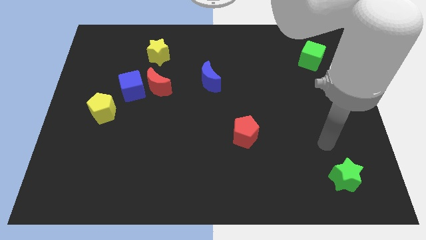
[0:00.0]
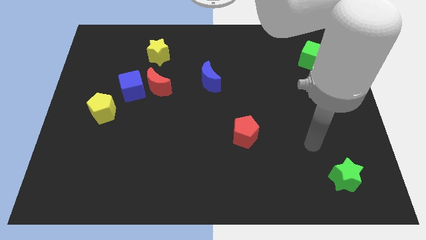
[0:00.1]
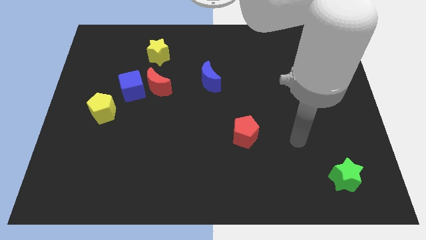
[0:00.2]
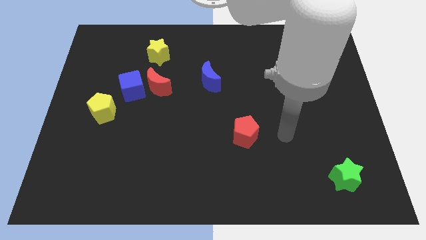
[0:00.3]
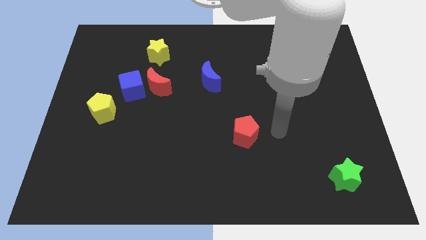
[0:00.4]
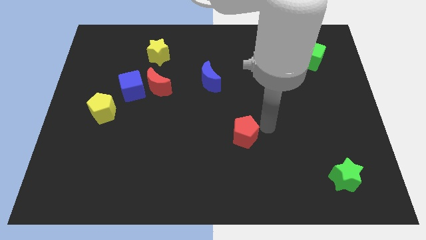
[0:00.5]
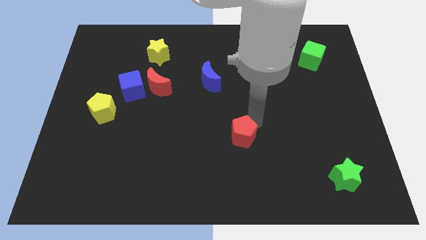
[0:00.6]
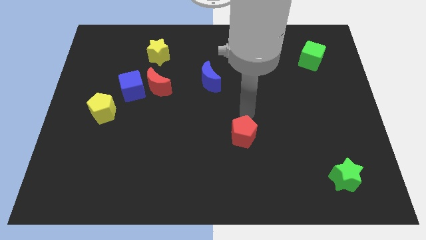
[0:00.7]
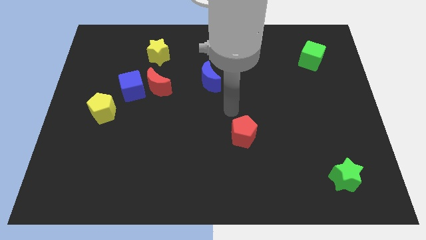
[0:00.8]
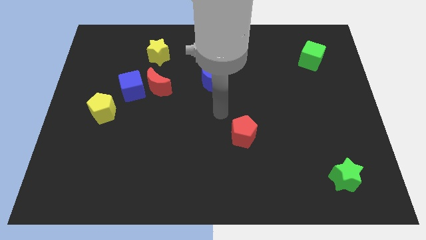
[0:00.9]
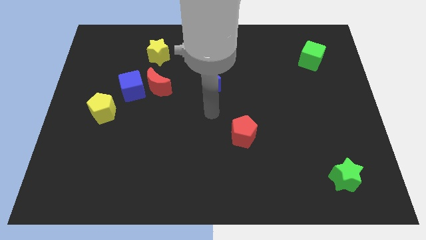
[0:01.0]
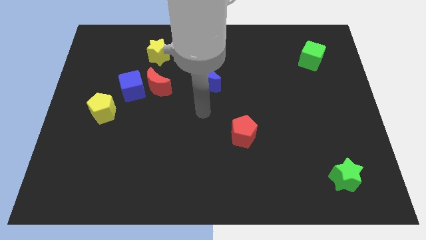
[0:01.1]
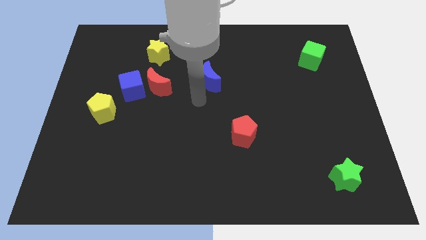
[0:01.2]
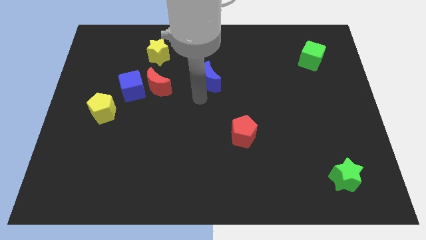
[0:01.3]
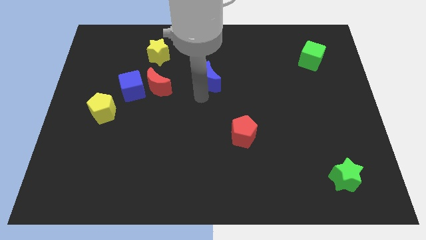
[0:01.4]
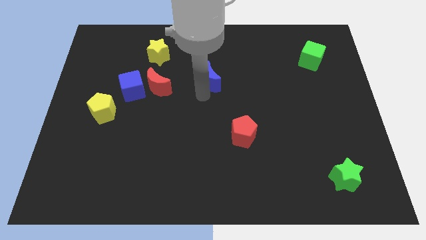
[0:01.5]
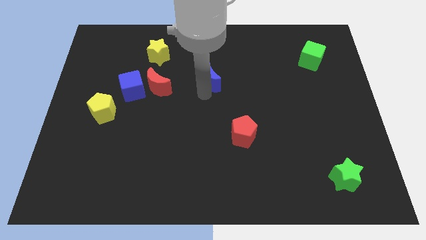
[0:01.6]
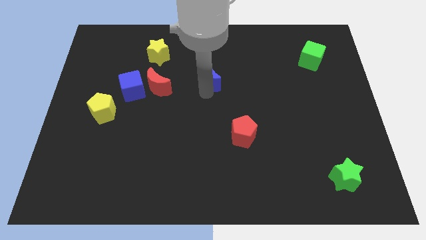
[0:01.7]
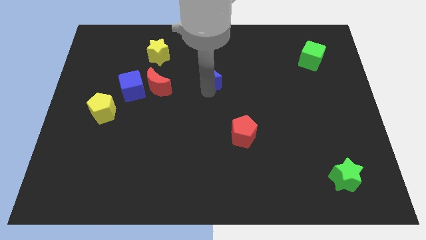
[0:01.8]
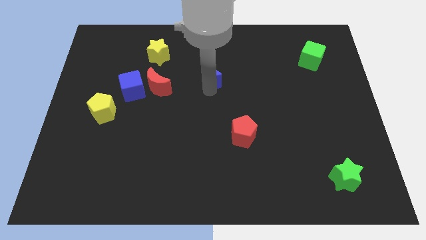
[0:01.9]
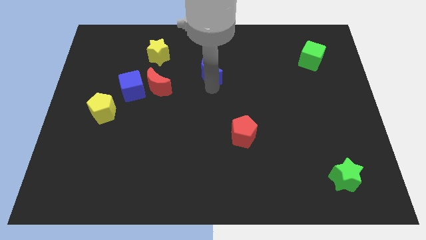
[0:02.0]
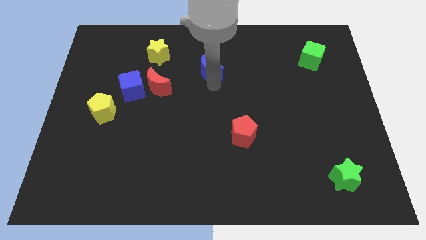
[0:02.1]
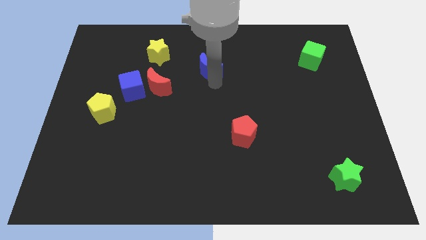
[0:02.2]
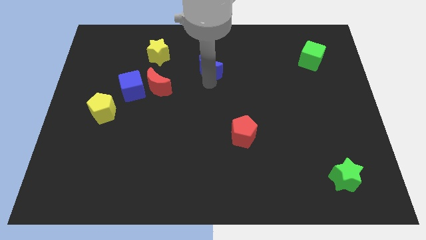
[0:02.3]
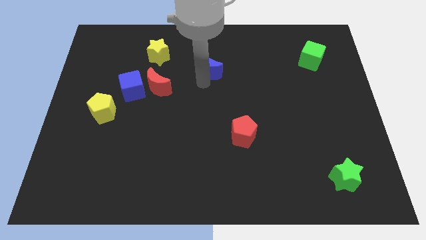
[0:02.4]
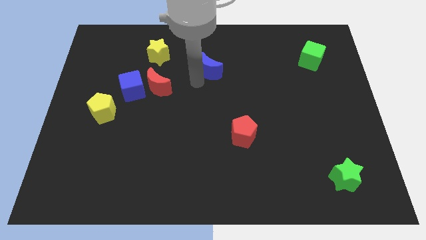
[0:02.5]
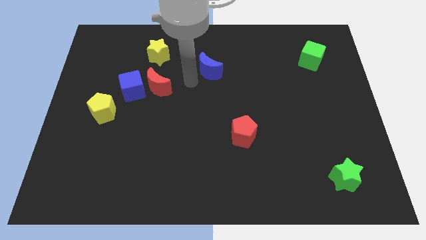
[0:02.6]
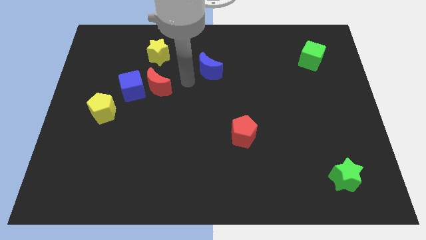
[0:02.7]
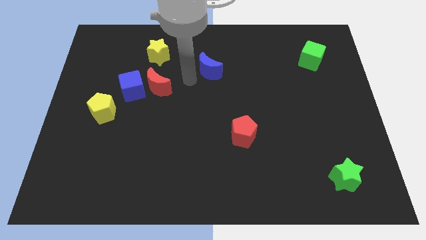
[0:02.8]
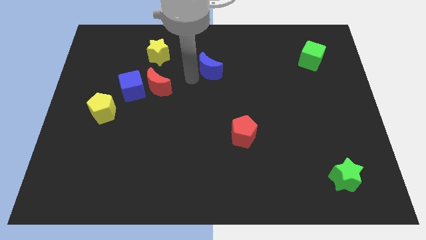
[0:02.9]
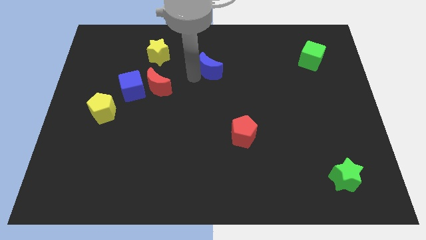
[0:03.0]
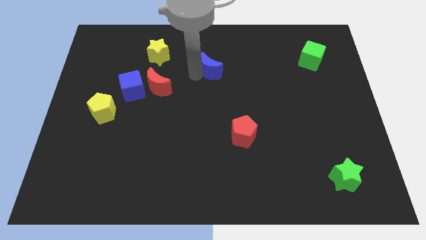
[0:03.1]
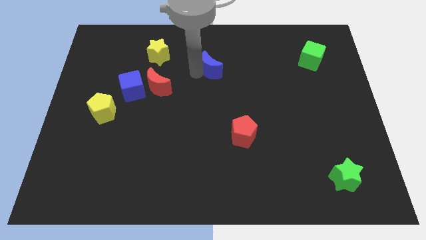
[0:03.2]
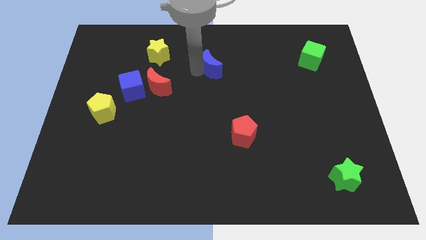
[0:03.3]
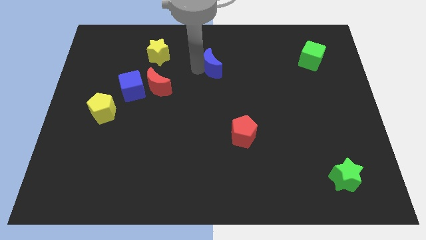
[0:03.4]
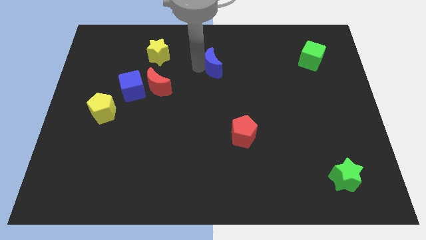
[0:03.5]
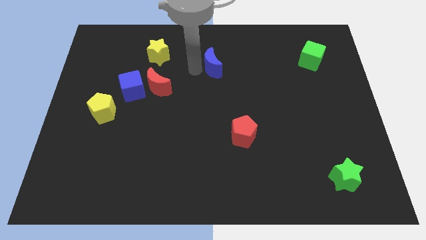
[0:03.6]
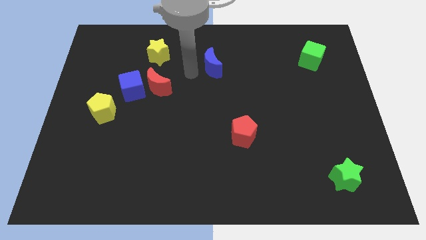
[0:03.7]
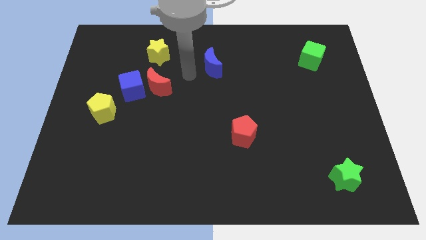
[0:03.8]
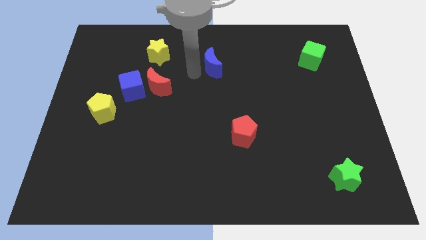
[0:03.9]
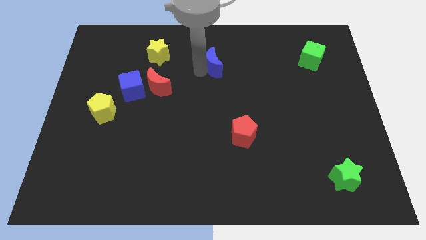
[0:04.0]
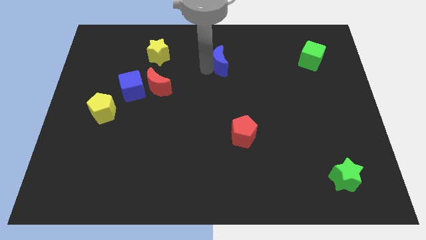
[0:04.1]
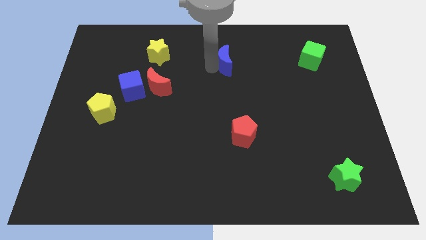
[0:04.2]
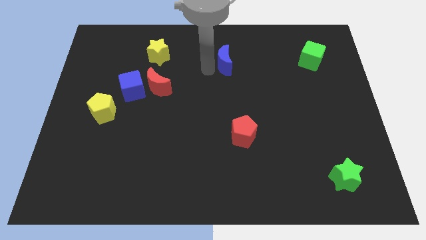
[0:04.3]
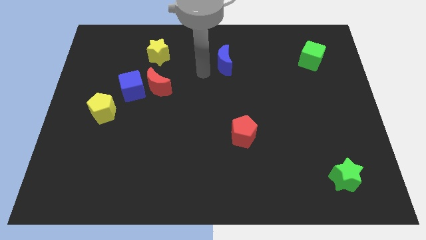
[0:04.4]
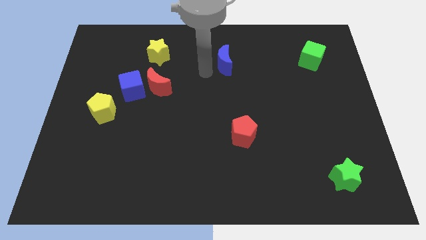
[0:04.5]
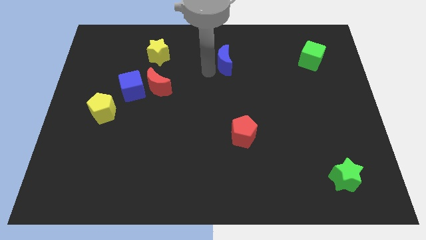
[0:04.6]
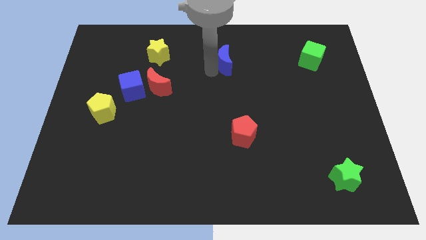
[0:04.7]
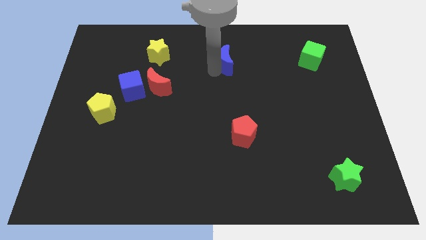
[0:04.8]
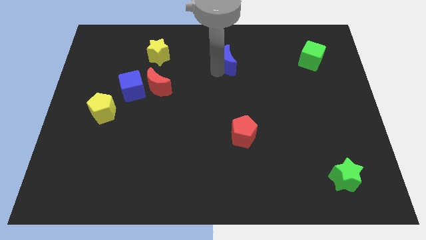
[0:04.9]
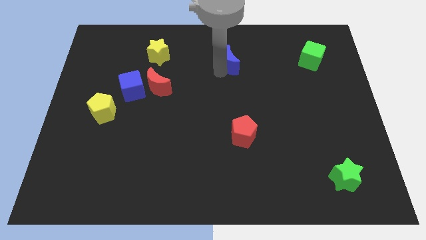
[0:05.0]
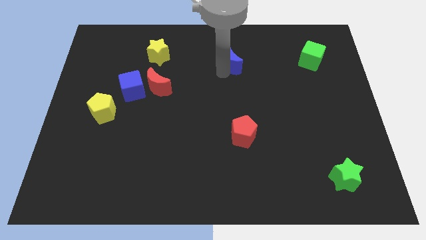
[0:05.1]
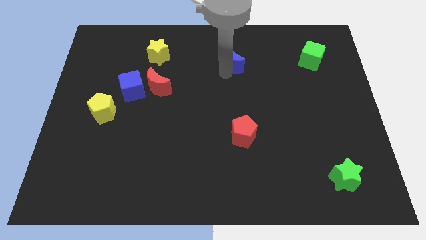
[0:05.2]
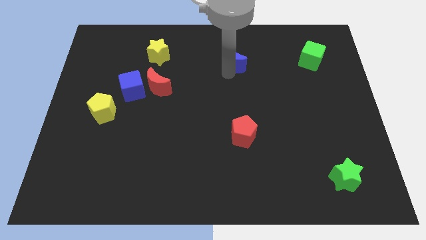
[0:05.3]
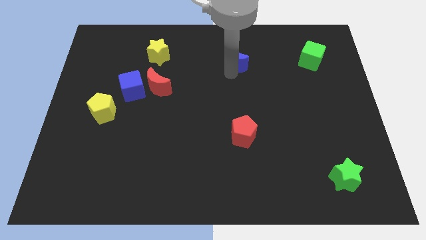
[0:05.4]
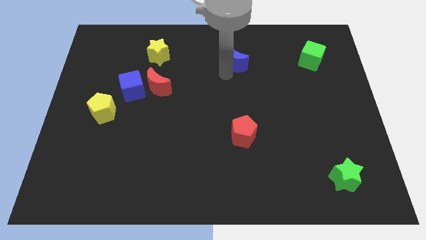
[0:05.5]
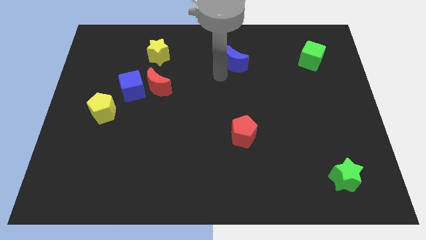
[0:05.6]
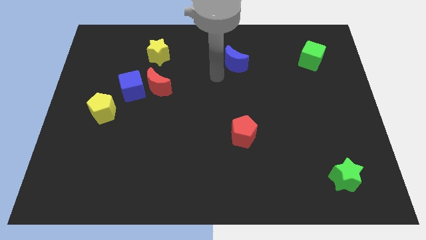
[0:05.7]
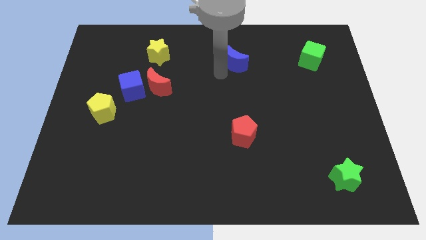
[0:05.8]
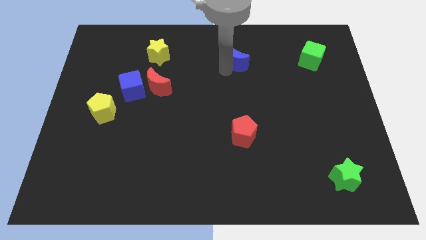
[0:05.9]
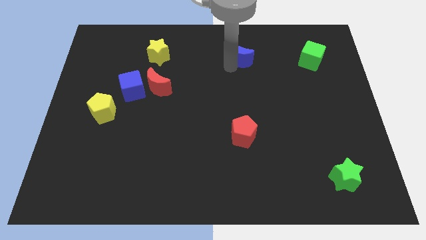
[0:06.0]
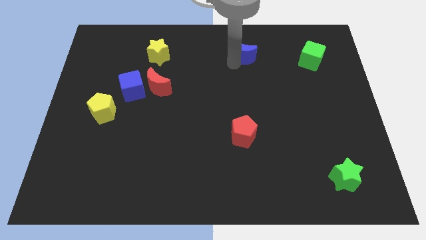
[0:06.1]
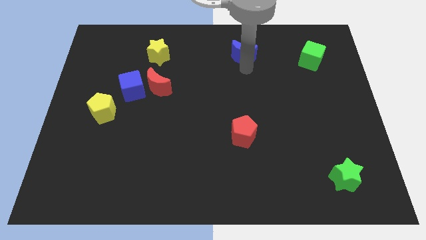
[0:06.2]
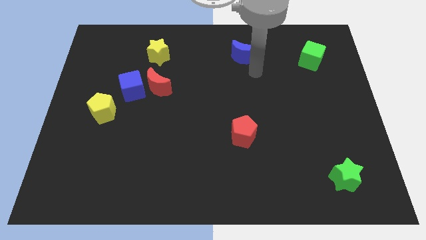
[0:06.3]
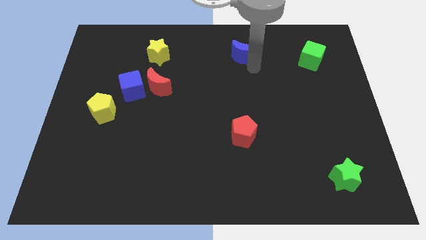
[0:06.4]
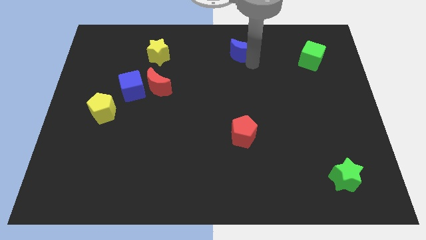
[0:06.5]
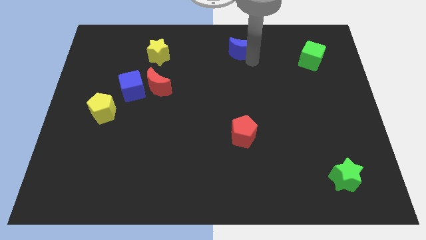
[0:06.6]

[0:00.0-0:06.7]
slide the blue moon to the towards your base

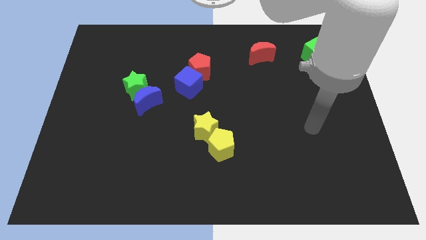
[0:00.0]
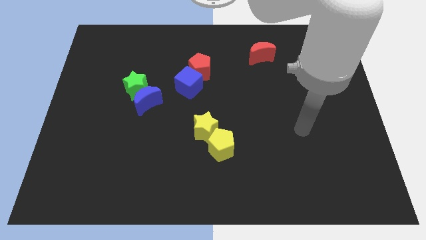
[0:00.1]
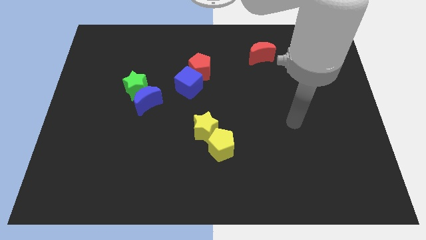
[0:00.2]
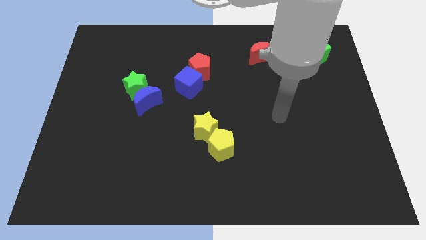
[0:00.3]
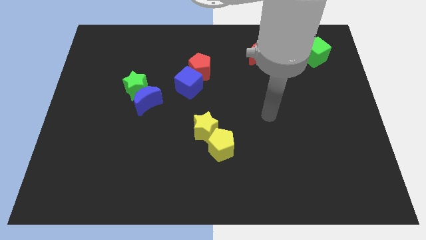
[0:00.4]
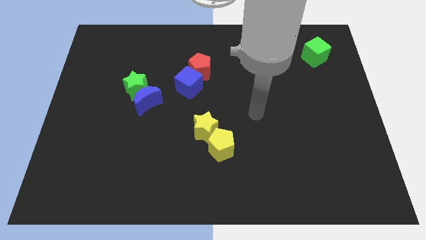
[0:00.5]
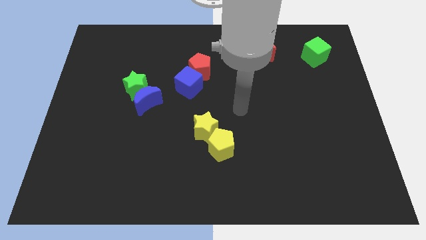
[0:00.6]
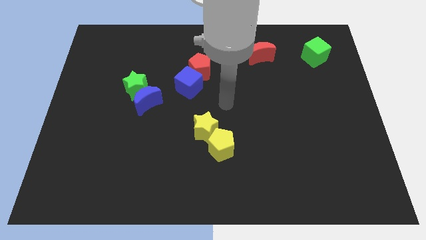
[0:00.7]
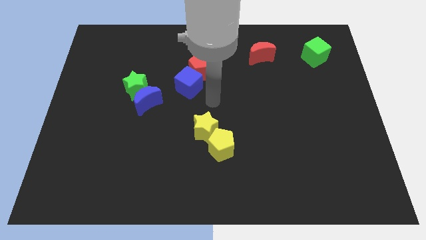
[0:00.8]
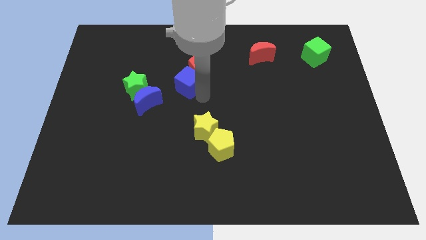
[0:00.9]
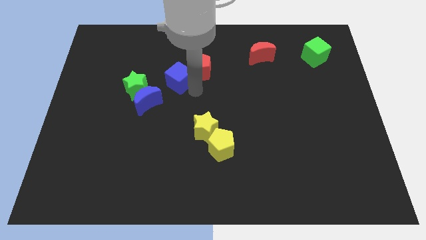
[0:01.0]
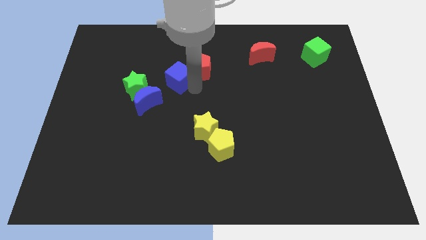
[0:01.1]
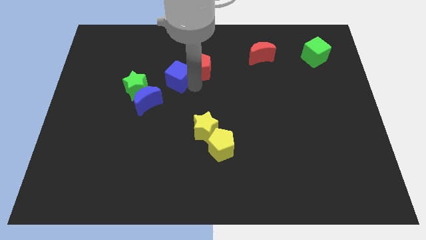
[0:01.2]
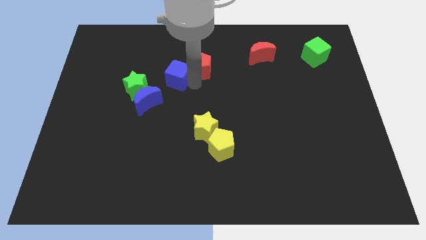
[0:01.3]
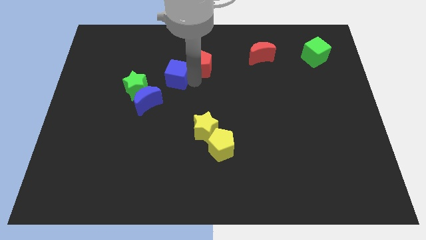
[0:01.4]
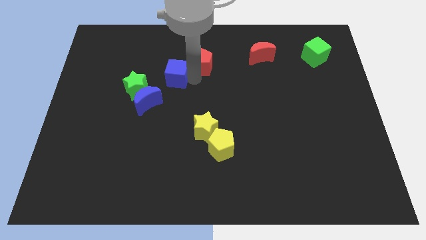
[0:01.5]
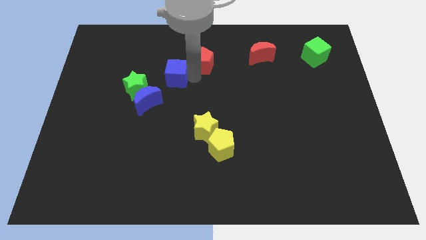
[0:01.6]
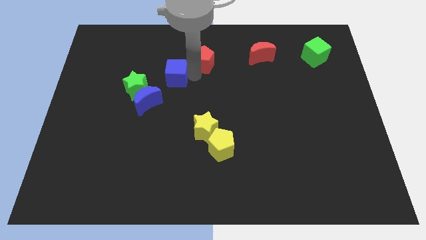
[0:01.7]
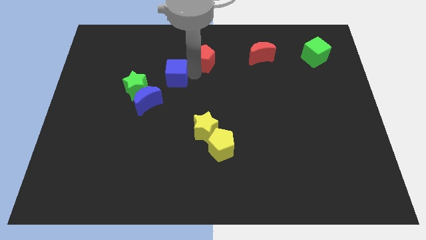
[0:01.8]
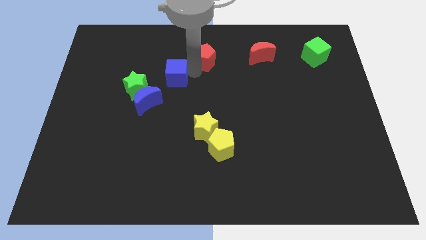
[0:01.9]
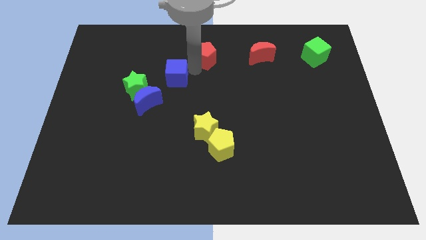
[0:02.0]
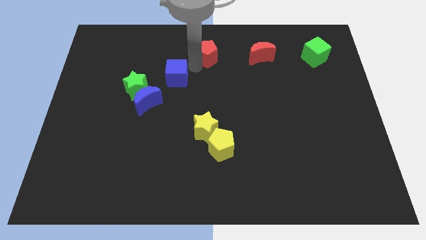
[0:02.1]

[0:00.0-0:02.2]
push the red pentagon to the towards your base
